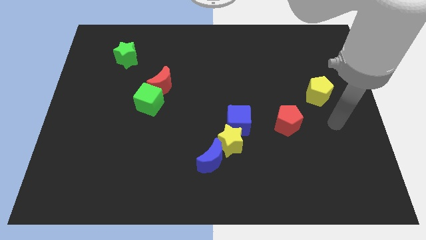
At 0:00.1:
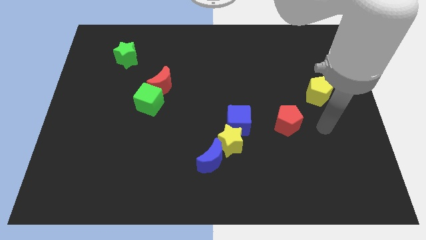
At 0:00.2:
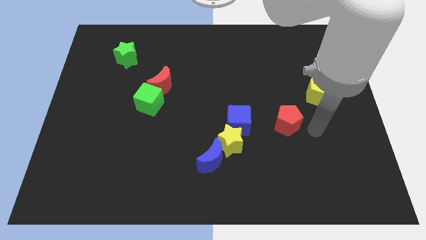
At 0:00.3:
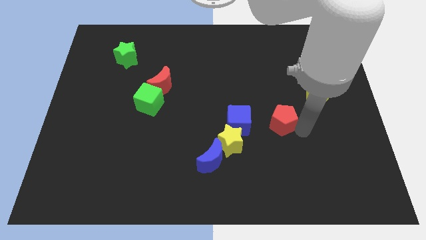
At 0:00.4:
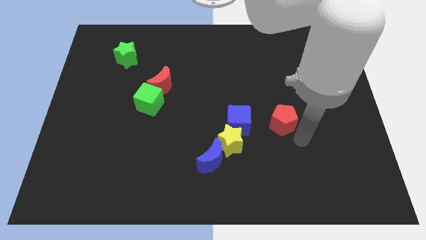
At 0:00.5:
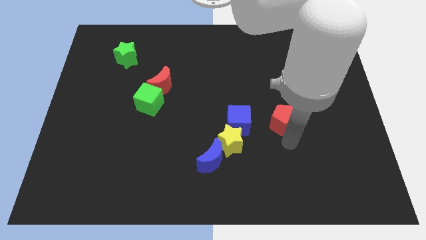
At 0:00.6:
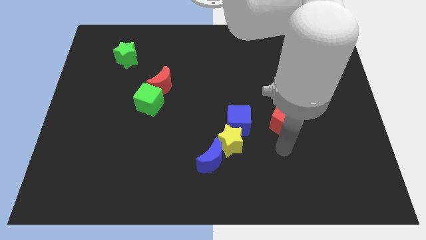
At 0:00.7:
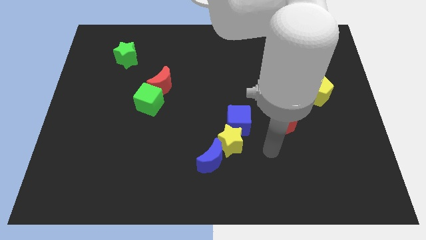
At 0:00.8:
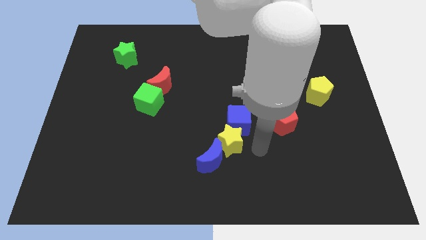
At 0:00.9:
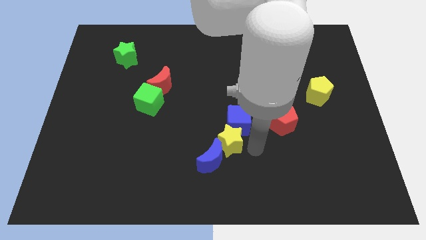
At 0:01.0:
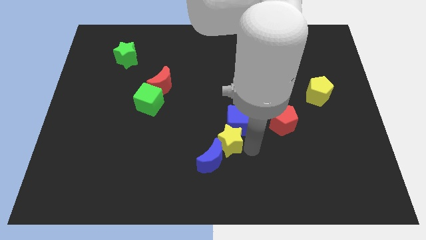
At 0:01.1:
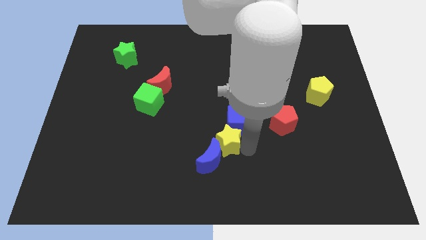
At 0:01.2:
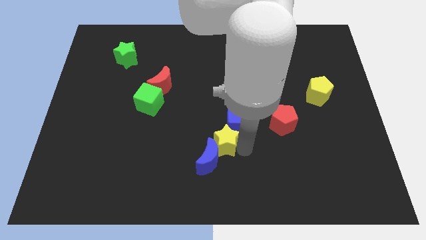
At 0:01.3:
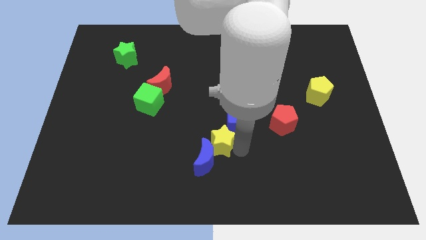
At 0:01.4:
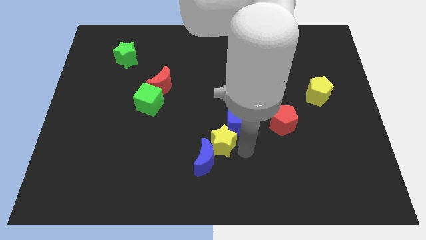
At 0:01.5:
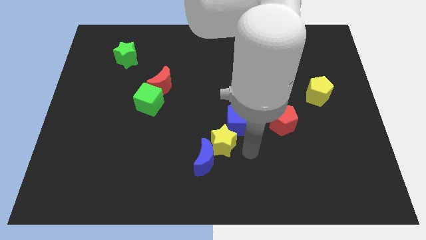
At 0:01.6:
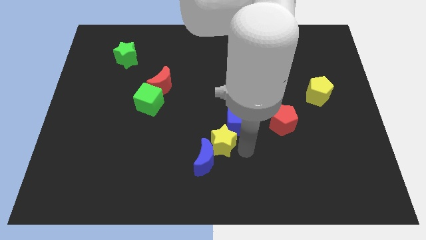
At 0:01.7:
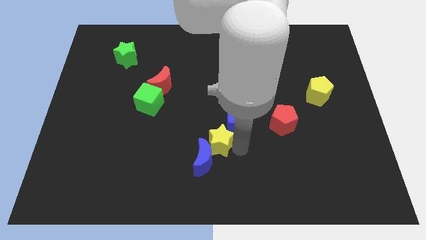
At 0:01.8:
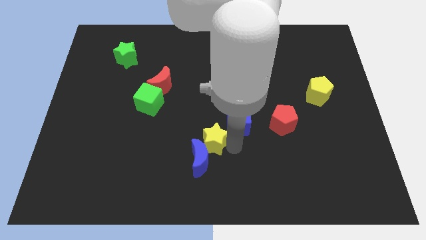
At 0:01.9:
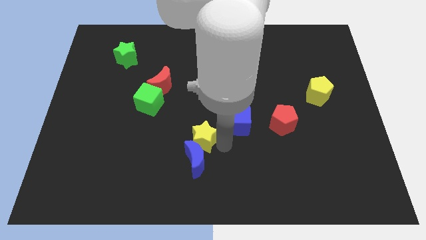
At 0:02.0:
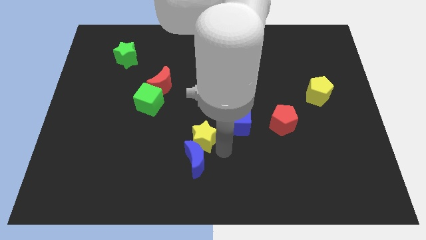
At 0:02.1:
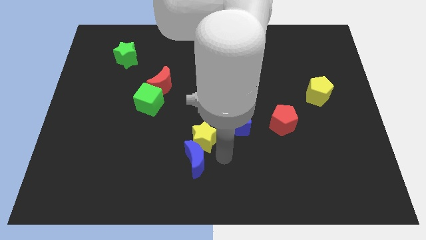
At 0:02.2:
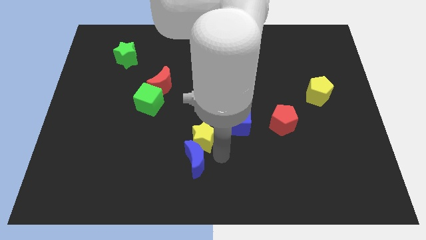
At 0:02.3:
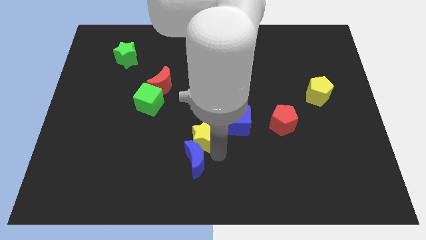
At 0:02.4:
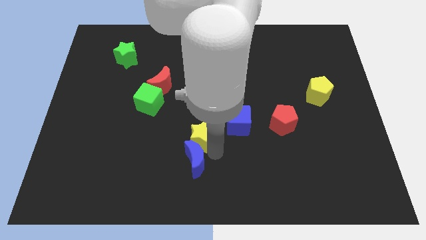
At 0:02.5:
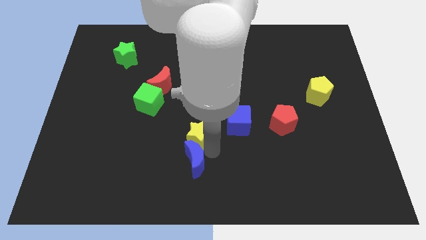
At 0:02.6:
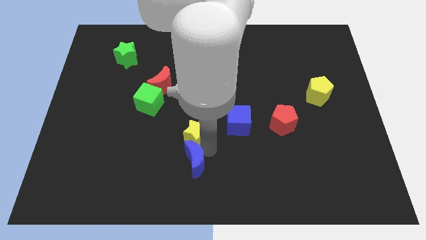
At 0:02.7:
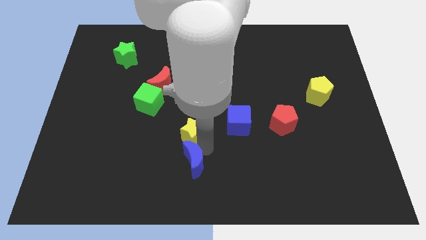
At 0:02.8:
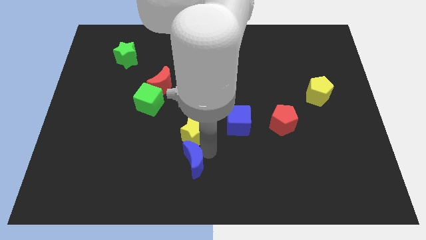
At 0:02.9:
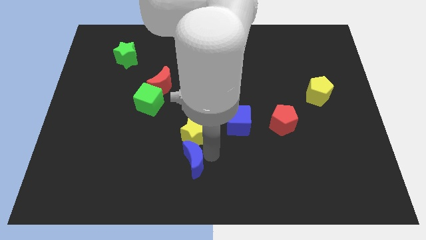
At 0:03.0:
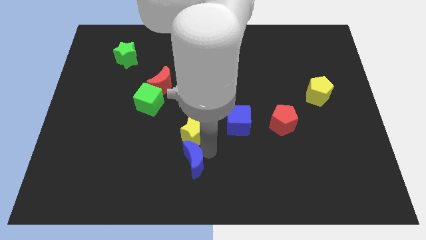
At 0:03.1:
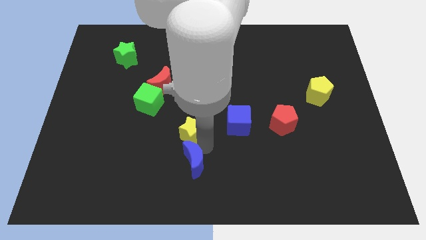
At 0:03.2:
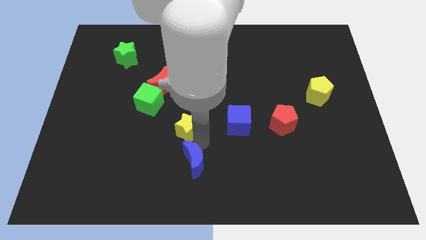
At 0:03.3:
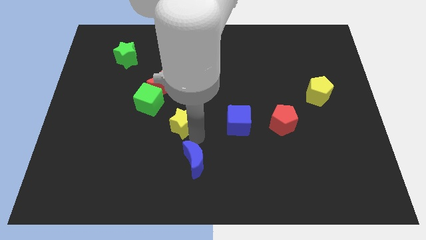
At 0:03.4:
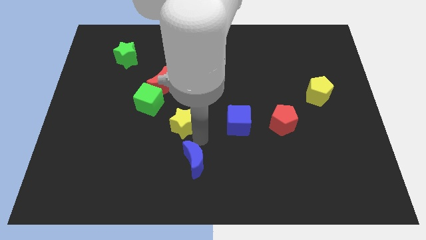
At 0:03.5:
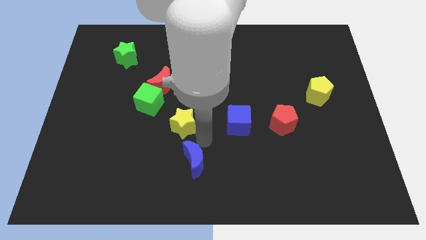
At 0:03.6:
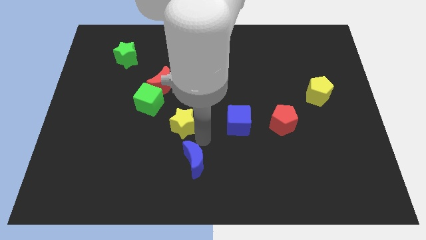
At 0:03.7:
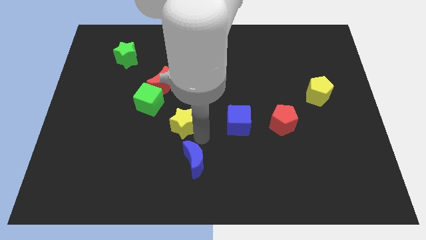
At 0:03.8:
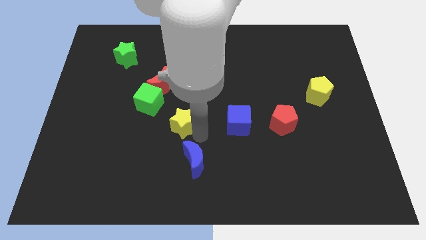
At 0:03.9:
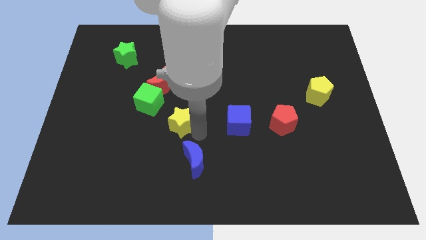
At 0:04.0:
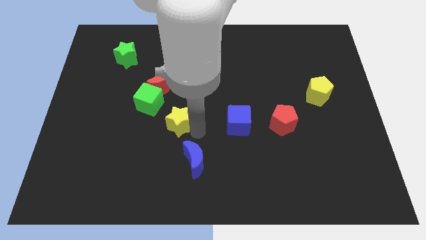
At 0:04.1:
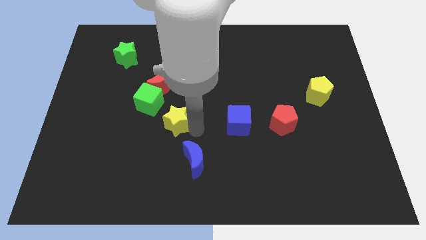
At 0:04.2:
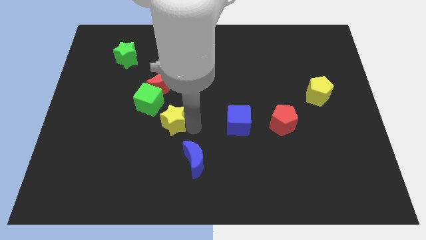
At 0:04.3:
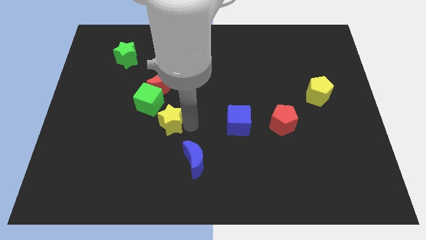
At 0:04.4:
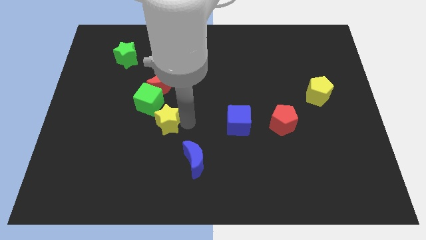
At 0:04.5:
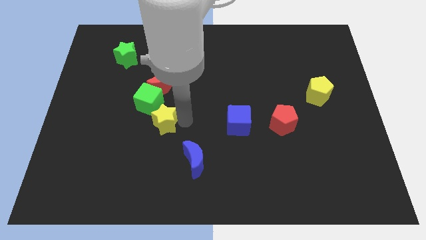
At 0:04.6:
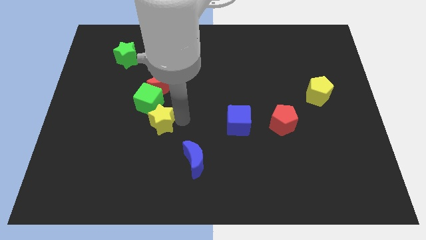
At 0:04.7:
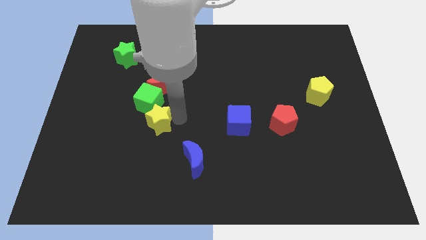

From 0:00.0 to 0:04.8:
push the yellow star close to the green cube

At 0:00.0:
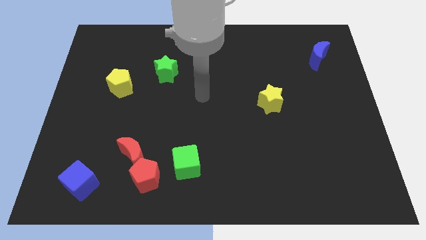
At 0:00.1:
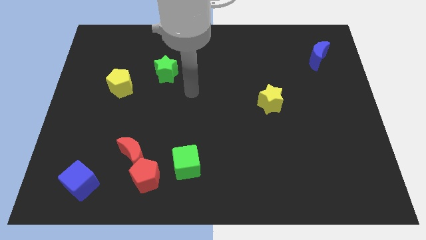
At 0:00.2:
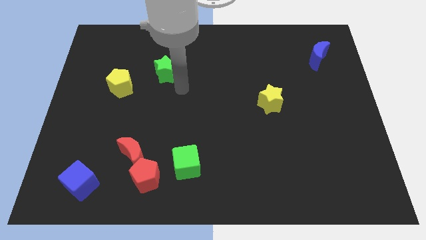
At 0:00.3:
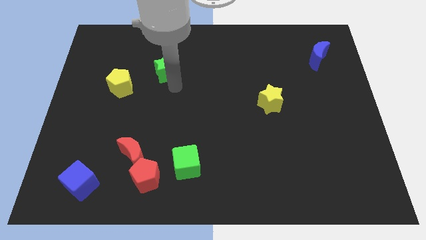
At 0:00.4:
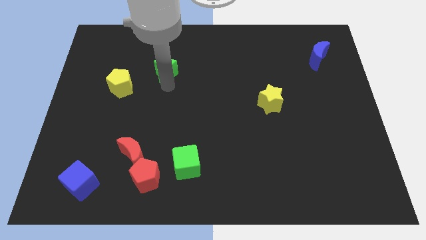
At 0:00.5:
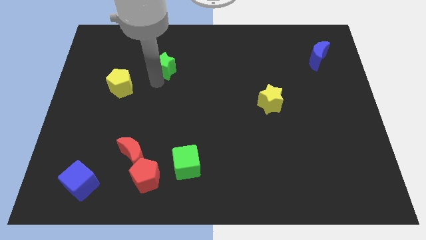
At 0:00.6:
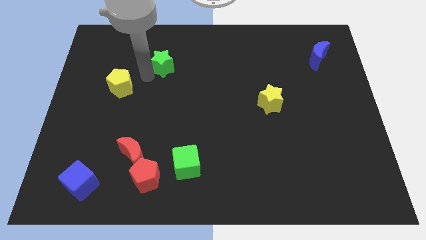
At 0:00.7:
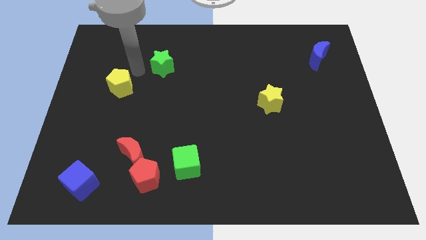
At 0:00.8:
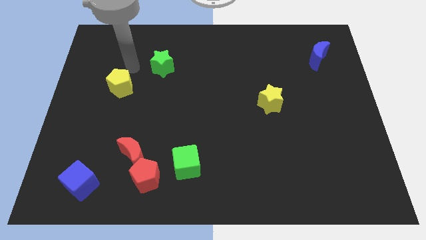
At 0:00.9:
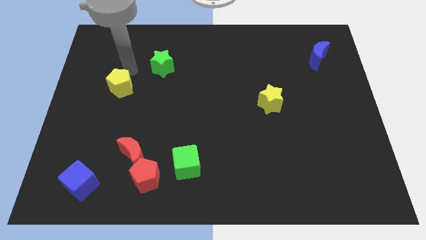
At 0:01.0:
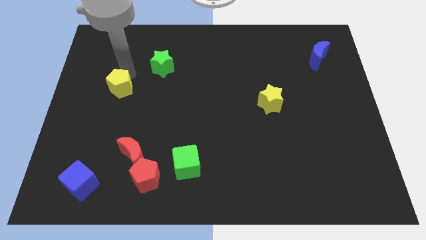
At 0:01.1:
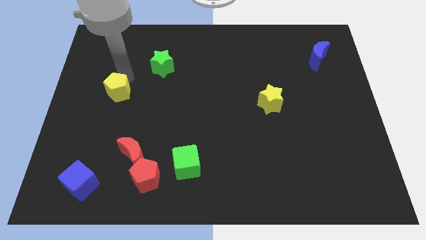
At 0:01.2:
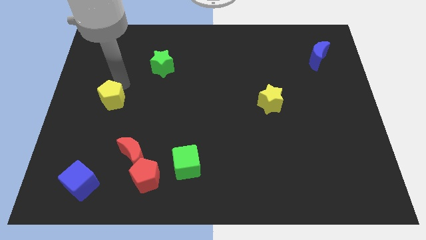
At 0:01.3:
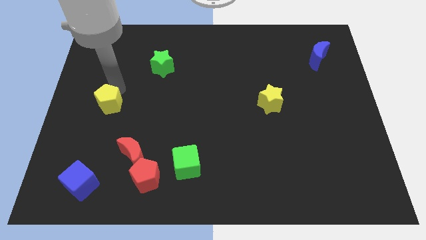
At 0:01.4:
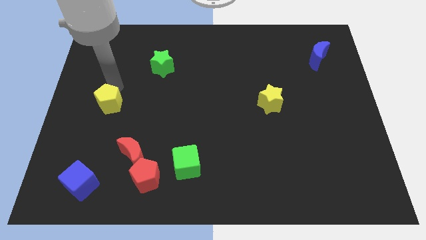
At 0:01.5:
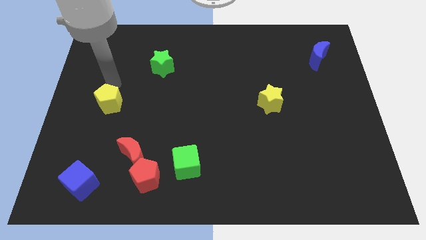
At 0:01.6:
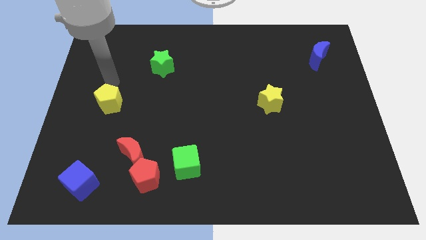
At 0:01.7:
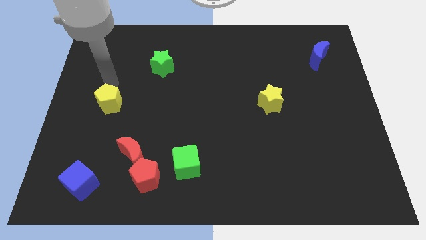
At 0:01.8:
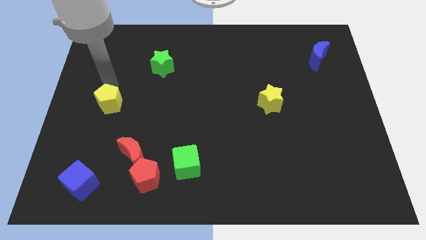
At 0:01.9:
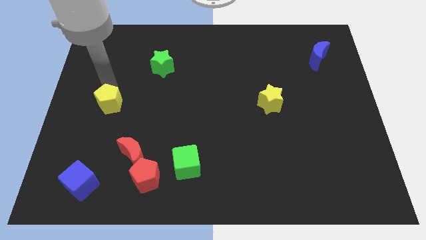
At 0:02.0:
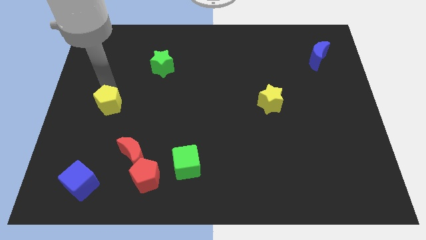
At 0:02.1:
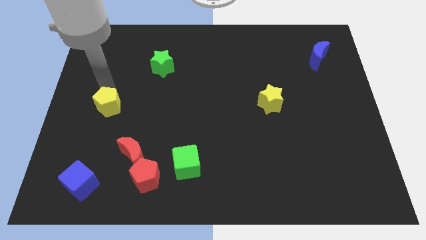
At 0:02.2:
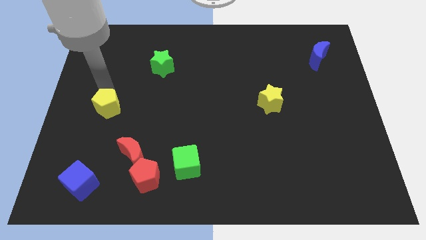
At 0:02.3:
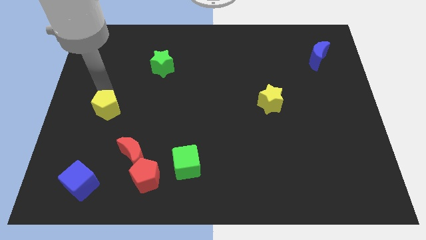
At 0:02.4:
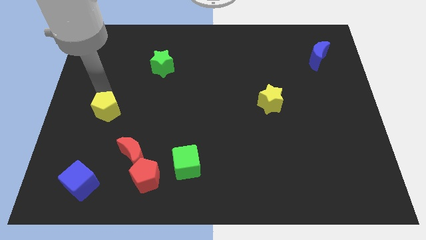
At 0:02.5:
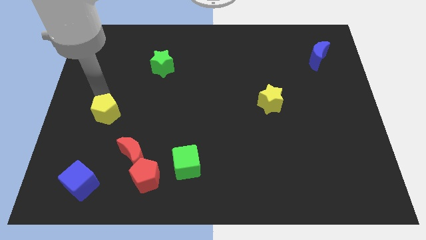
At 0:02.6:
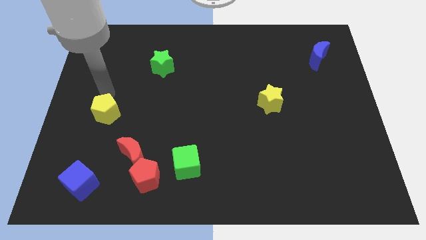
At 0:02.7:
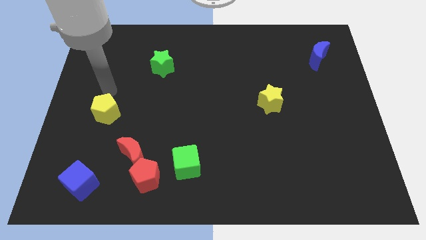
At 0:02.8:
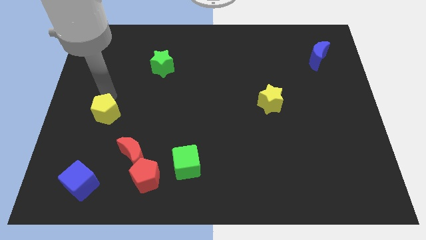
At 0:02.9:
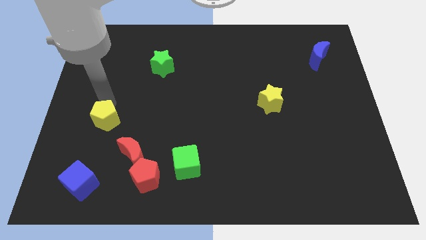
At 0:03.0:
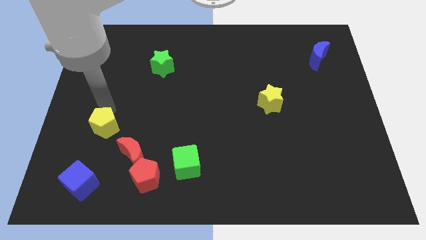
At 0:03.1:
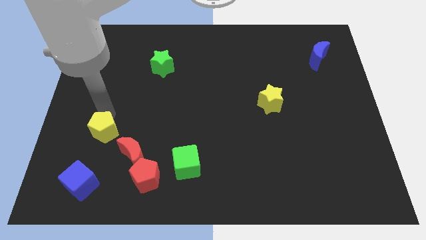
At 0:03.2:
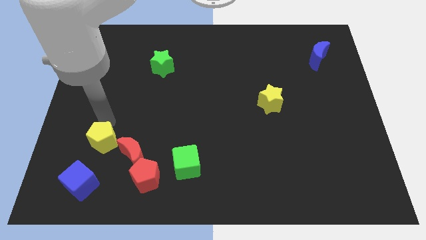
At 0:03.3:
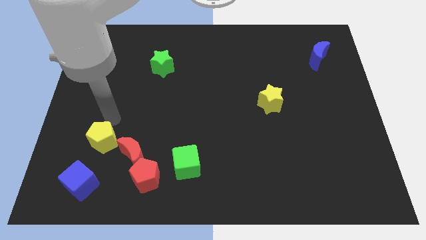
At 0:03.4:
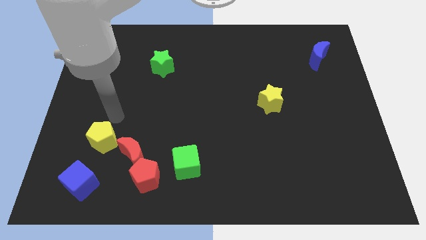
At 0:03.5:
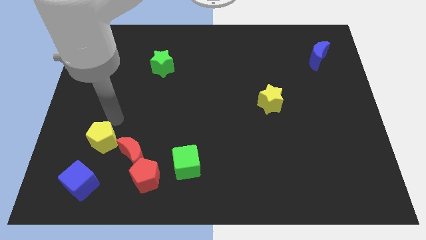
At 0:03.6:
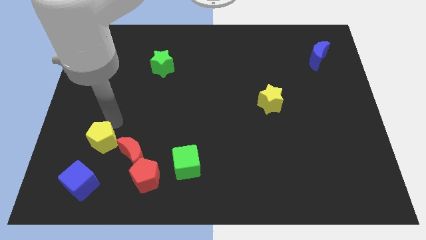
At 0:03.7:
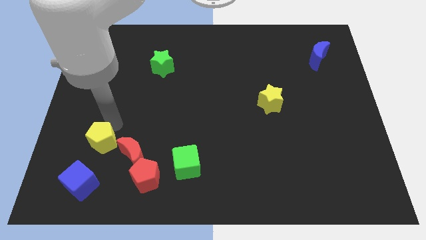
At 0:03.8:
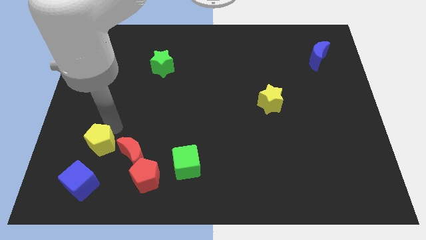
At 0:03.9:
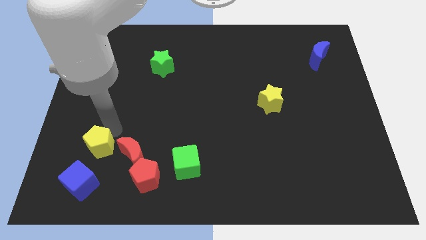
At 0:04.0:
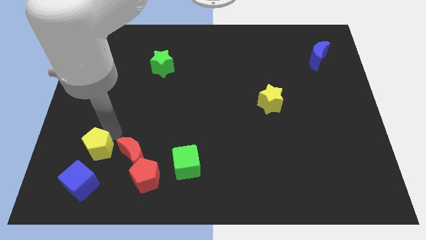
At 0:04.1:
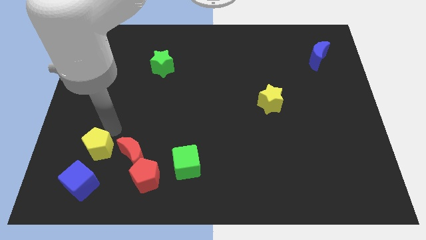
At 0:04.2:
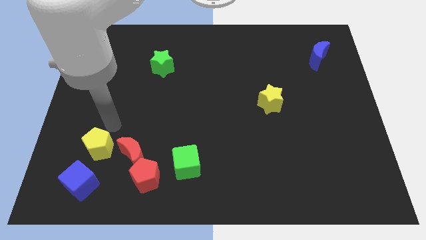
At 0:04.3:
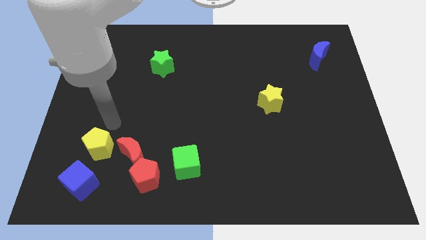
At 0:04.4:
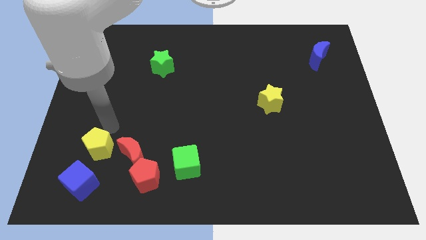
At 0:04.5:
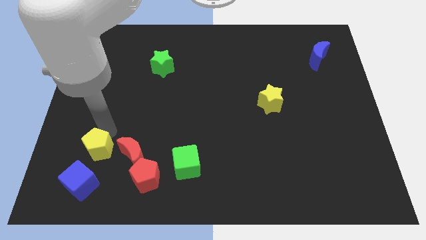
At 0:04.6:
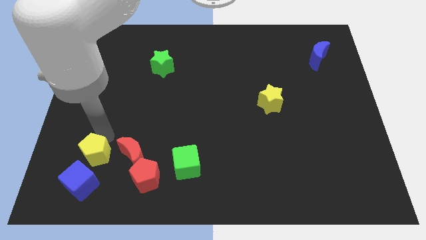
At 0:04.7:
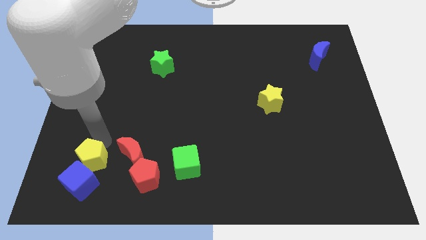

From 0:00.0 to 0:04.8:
move the yellow pentagon towards the blue cube
